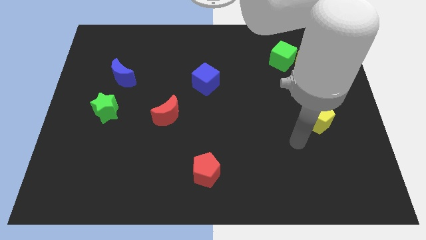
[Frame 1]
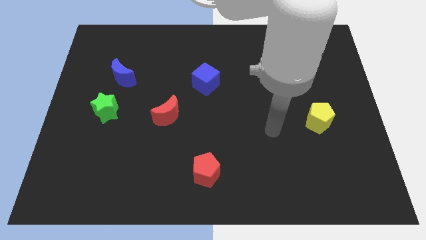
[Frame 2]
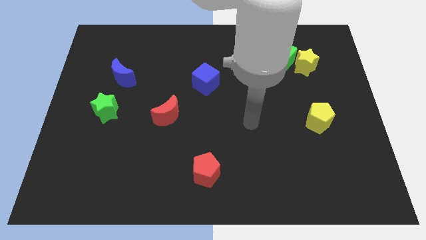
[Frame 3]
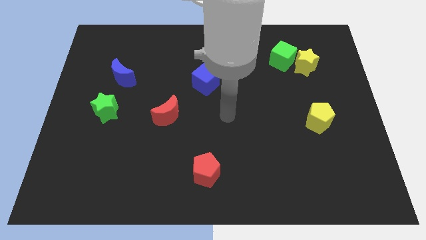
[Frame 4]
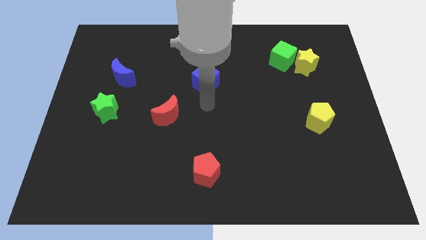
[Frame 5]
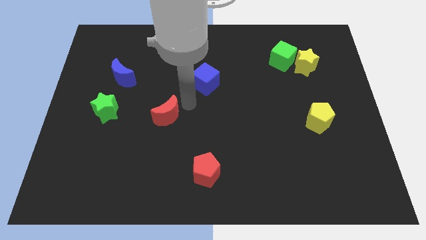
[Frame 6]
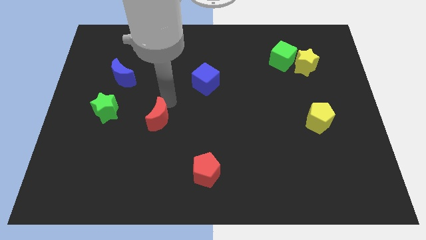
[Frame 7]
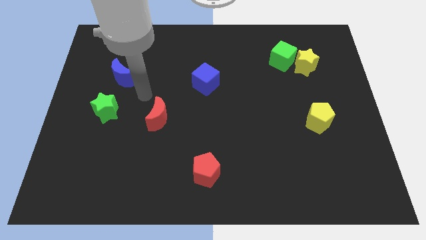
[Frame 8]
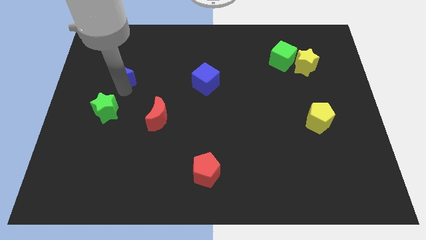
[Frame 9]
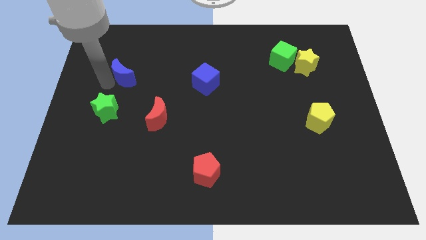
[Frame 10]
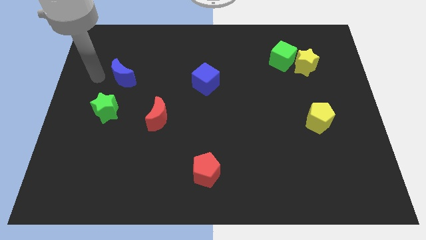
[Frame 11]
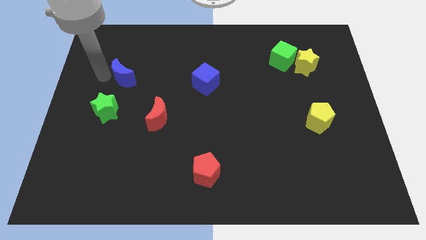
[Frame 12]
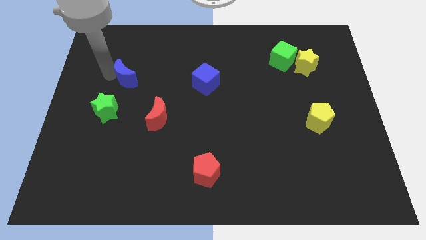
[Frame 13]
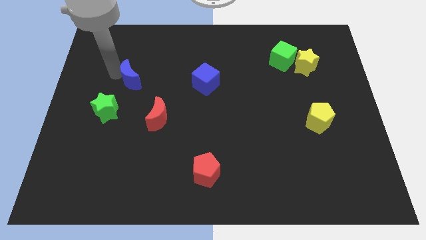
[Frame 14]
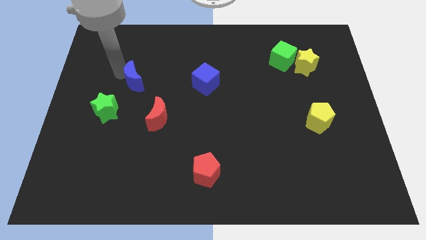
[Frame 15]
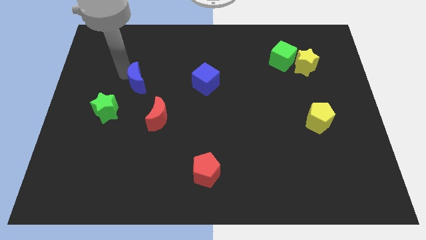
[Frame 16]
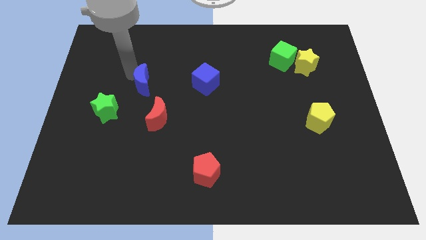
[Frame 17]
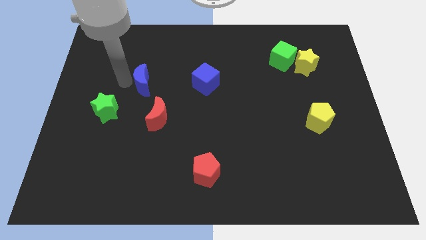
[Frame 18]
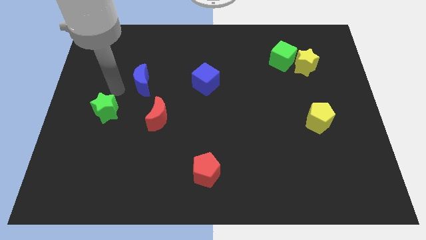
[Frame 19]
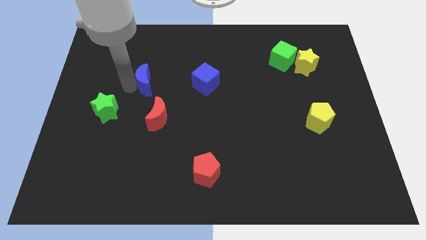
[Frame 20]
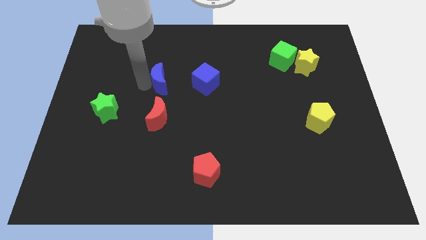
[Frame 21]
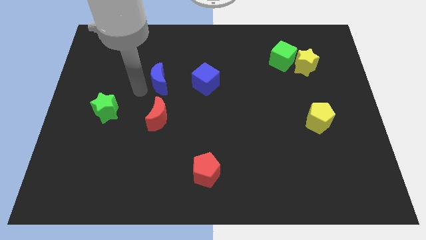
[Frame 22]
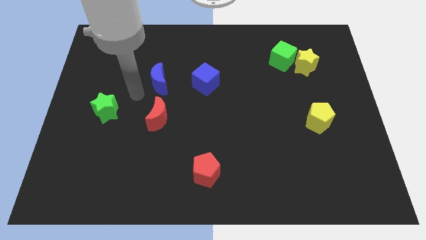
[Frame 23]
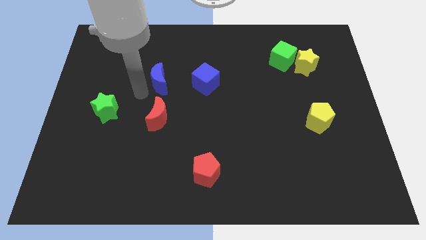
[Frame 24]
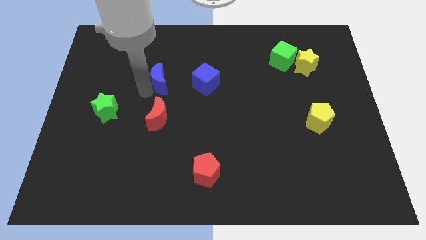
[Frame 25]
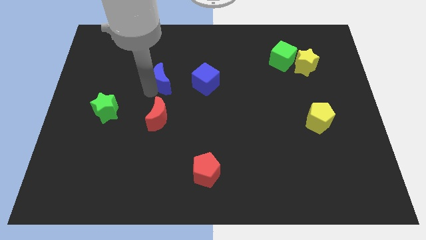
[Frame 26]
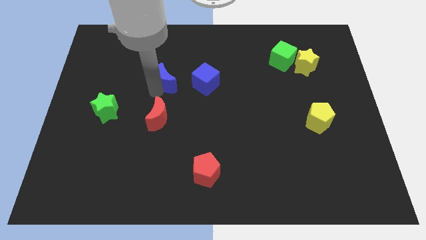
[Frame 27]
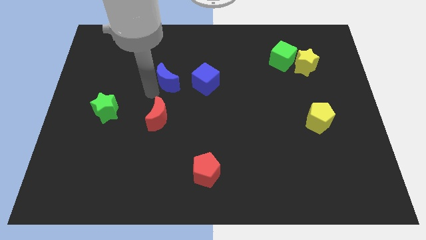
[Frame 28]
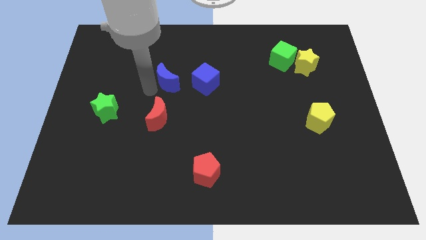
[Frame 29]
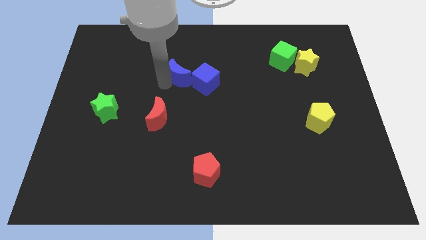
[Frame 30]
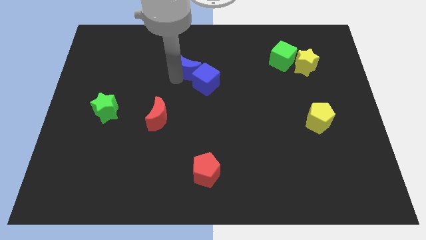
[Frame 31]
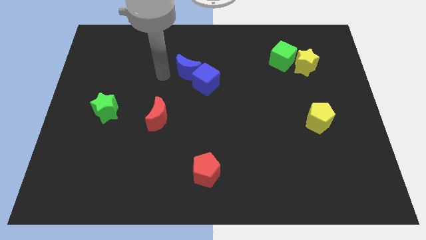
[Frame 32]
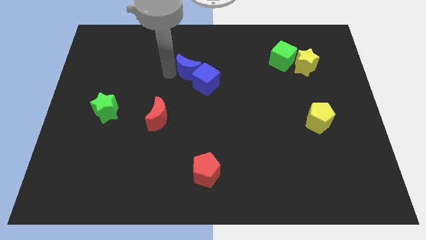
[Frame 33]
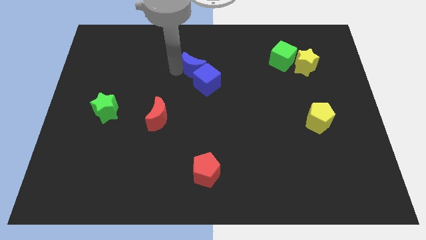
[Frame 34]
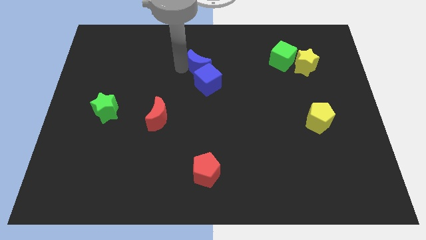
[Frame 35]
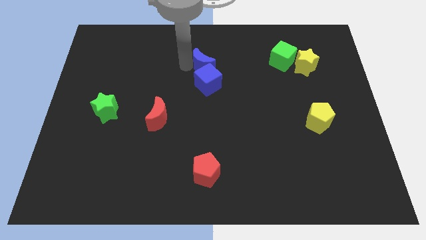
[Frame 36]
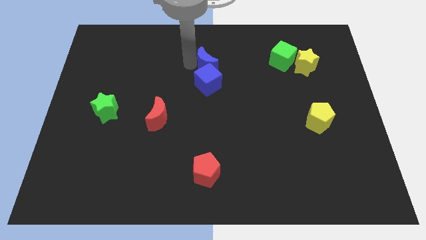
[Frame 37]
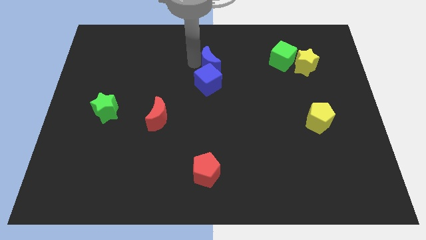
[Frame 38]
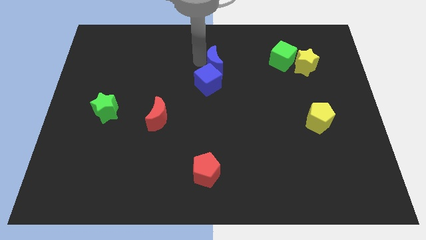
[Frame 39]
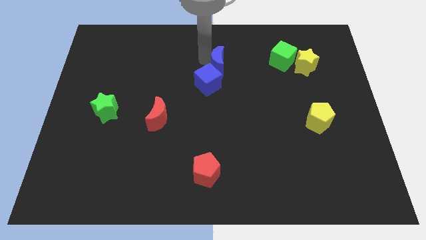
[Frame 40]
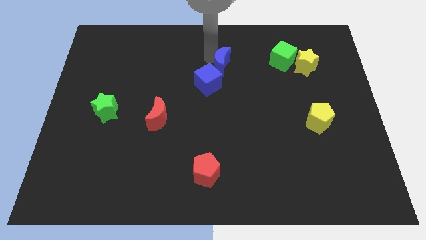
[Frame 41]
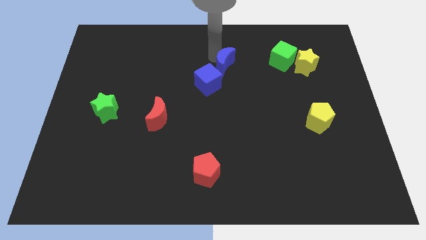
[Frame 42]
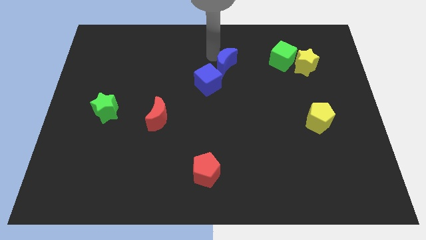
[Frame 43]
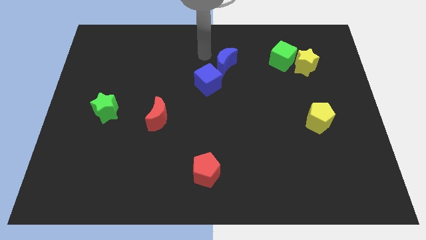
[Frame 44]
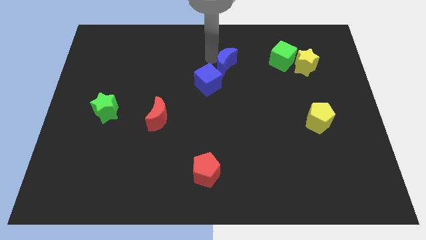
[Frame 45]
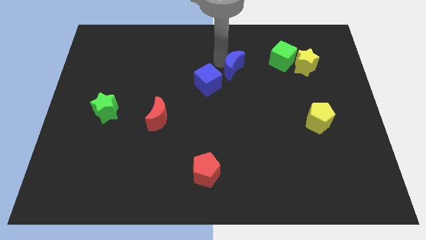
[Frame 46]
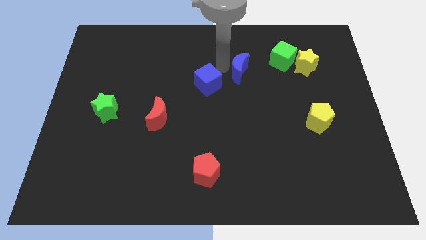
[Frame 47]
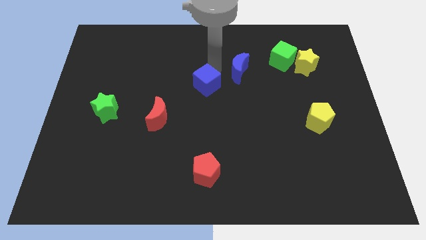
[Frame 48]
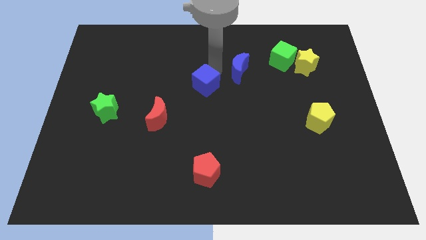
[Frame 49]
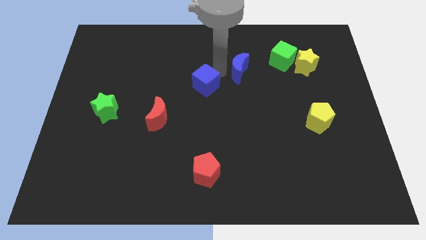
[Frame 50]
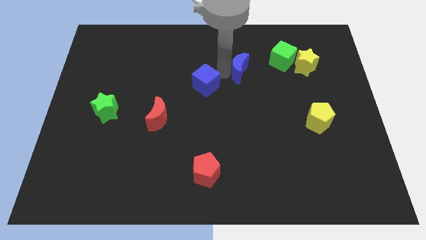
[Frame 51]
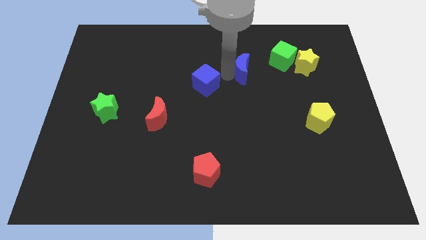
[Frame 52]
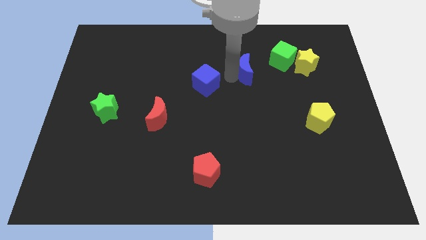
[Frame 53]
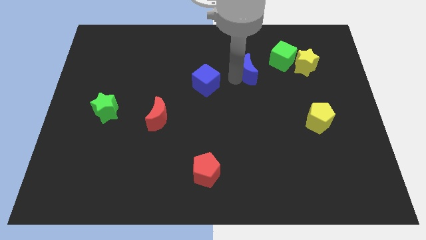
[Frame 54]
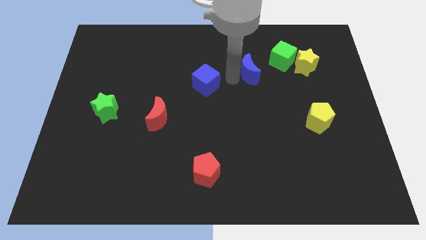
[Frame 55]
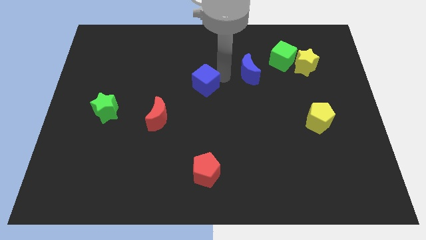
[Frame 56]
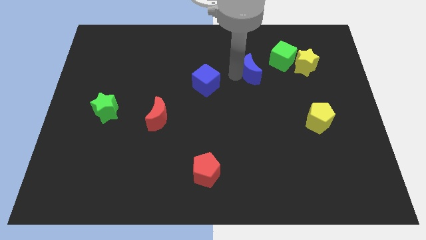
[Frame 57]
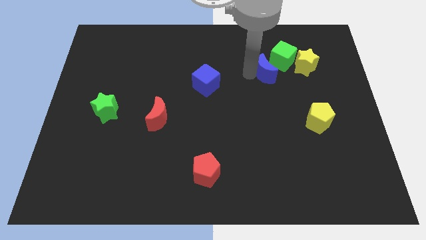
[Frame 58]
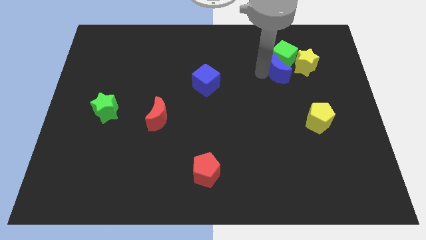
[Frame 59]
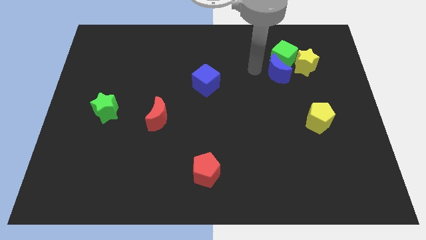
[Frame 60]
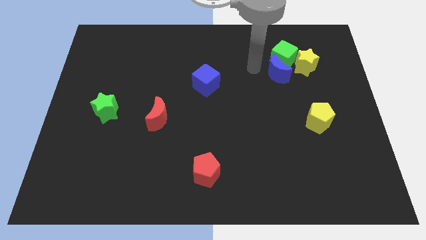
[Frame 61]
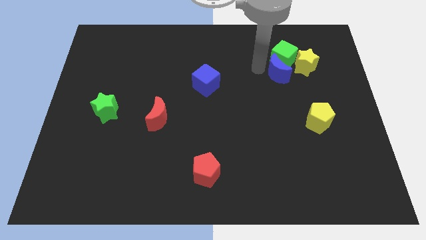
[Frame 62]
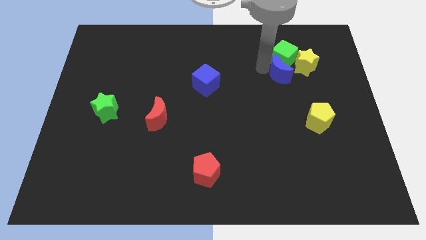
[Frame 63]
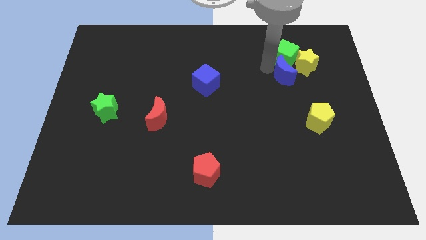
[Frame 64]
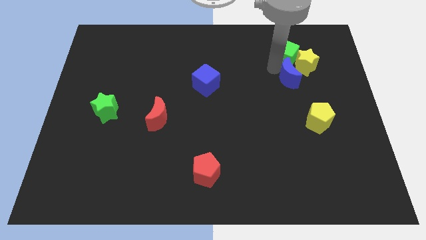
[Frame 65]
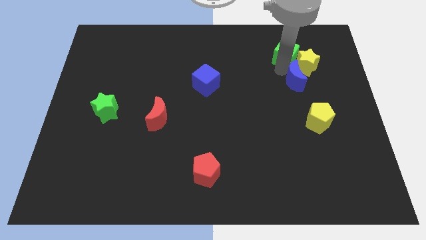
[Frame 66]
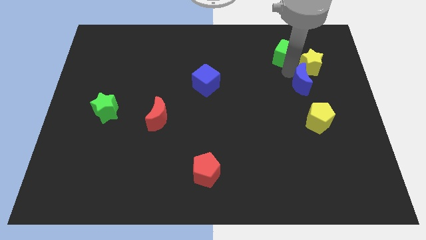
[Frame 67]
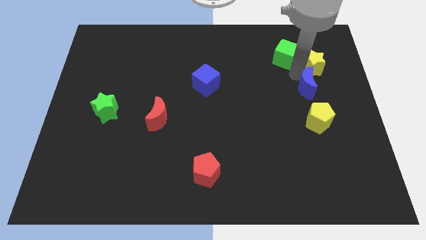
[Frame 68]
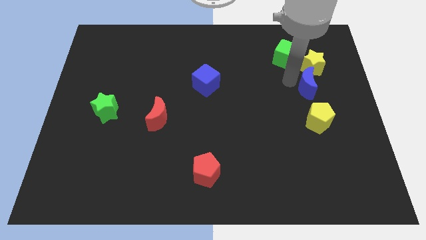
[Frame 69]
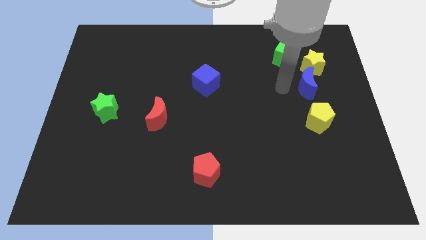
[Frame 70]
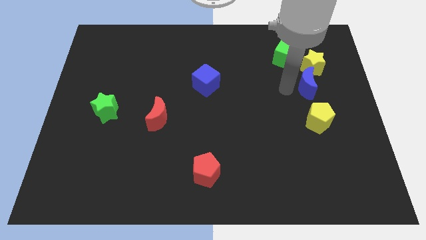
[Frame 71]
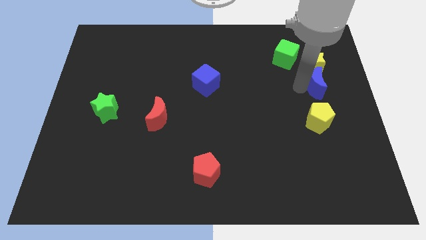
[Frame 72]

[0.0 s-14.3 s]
push the blue moon to the bottom right side of the yellow star

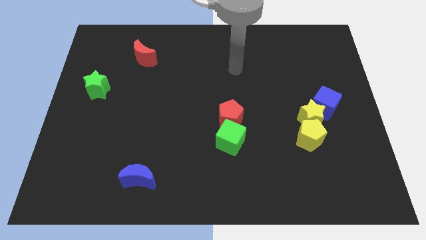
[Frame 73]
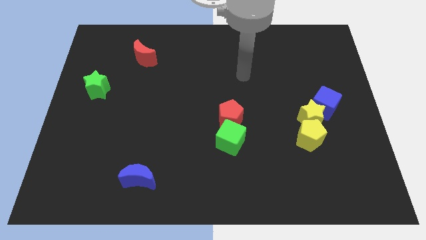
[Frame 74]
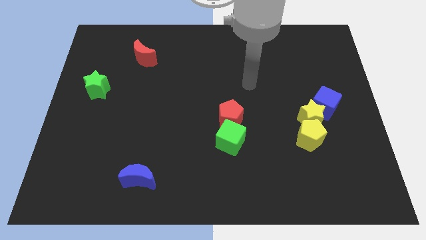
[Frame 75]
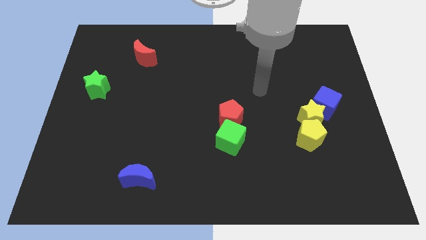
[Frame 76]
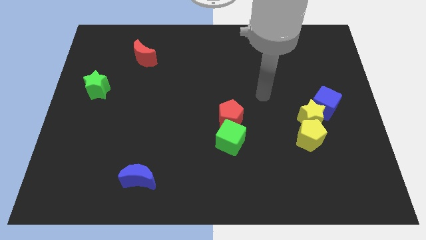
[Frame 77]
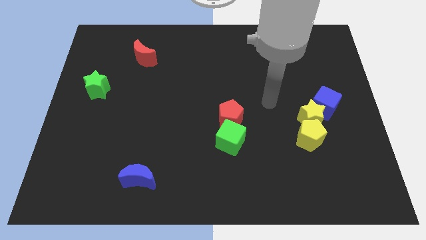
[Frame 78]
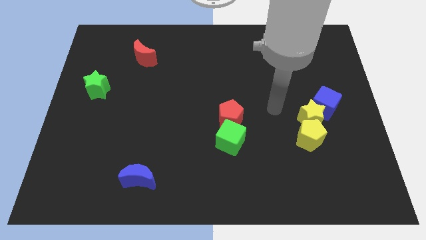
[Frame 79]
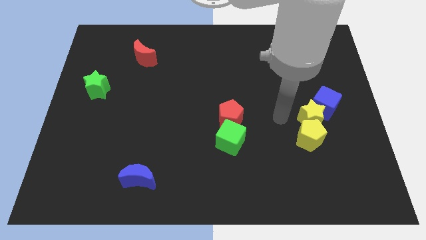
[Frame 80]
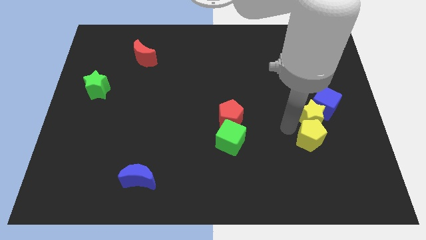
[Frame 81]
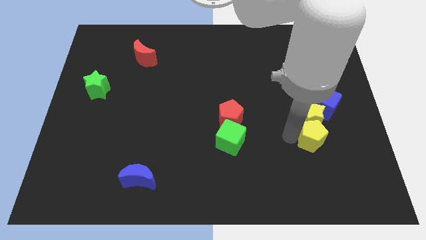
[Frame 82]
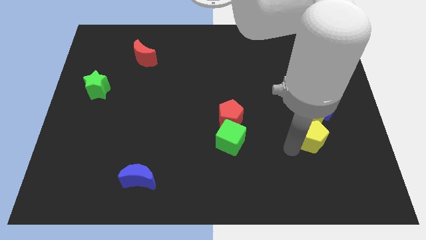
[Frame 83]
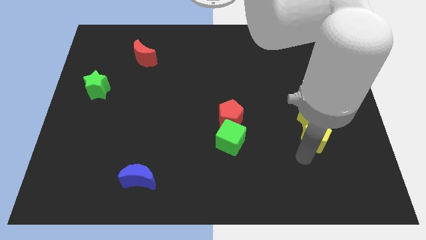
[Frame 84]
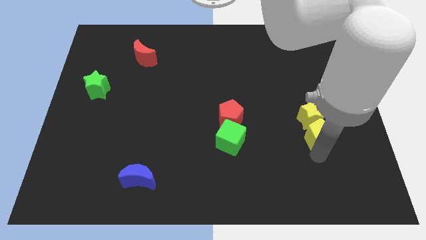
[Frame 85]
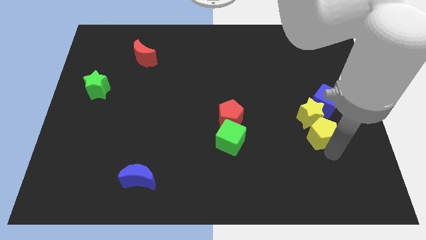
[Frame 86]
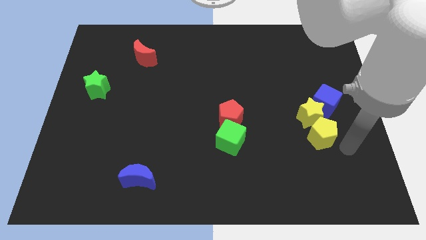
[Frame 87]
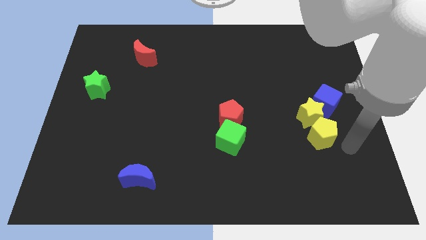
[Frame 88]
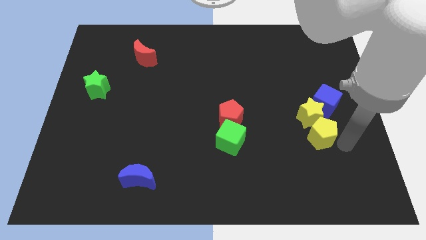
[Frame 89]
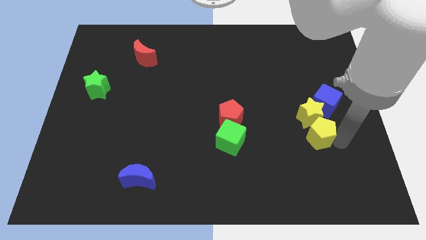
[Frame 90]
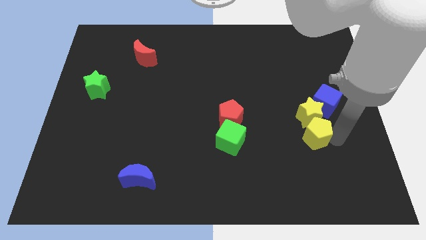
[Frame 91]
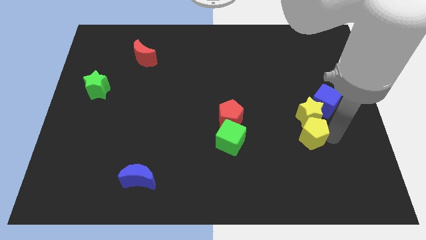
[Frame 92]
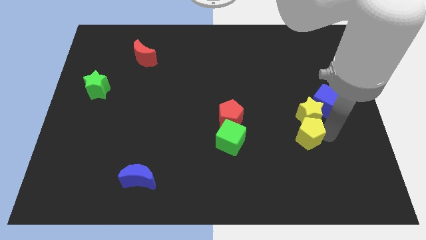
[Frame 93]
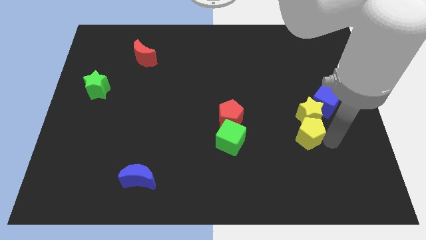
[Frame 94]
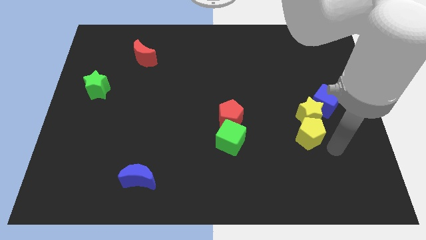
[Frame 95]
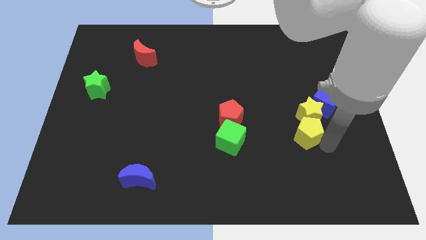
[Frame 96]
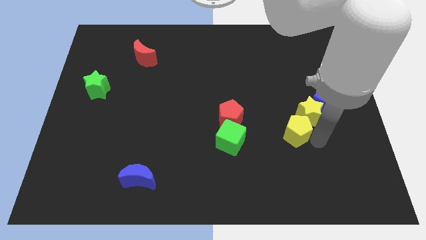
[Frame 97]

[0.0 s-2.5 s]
push the yellow pentagon just right of the red pentagon
